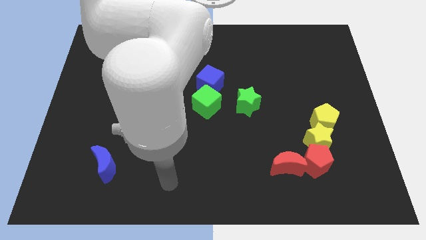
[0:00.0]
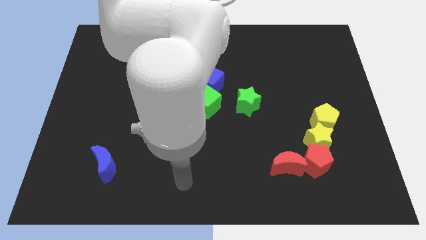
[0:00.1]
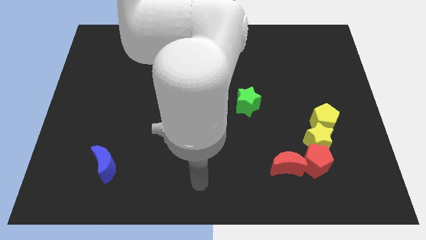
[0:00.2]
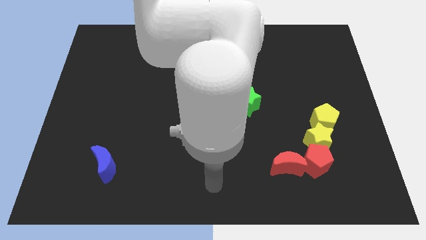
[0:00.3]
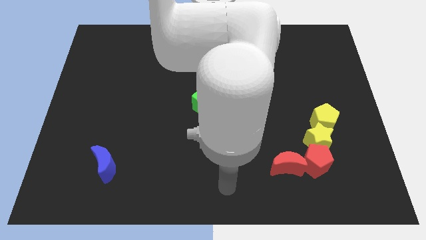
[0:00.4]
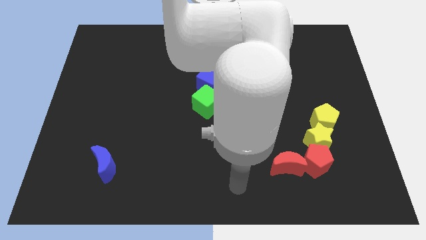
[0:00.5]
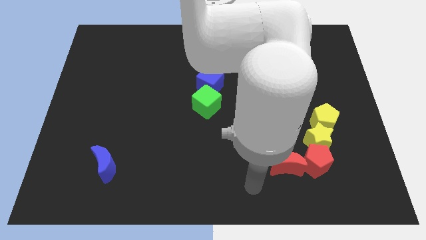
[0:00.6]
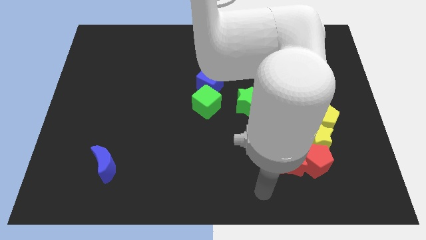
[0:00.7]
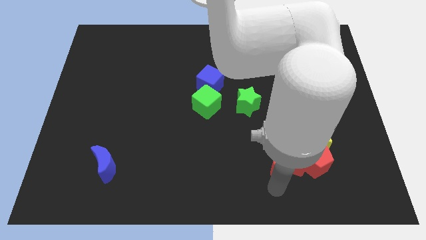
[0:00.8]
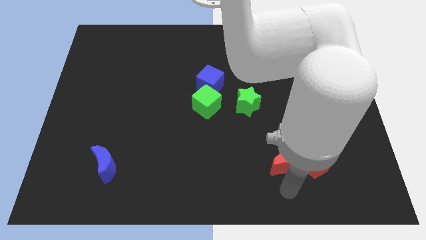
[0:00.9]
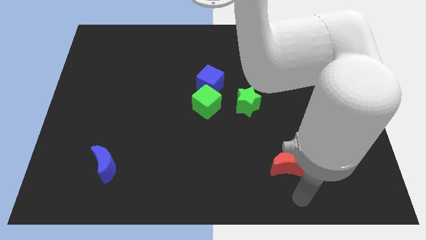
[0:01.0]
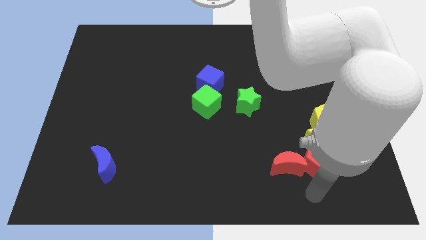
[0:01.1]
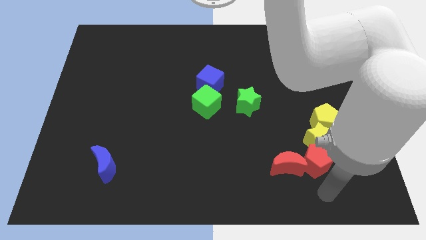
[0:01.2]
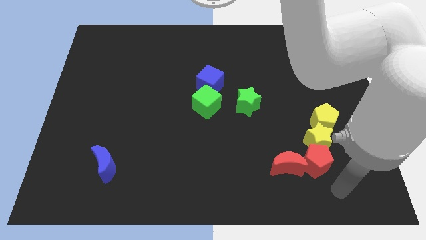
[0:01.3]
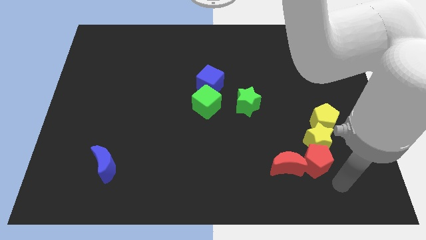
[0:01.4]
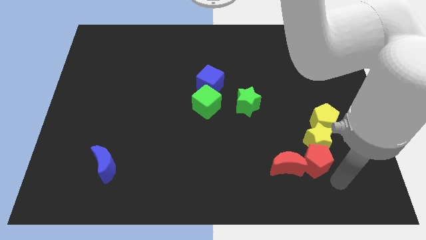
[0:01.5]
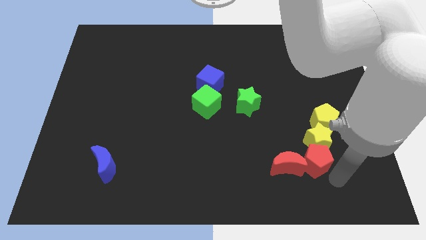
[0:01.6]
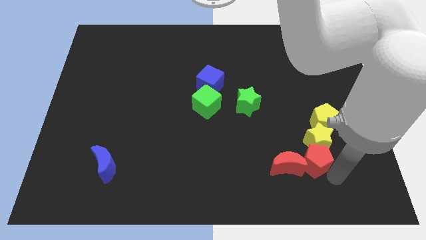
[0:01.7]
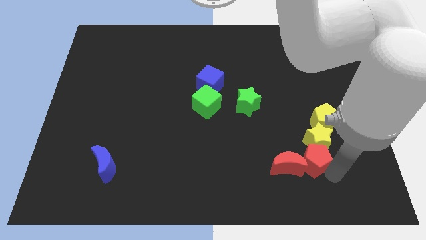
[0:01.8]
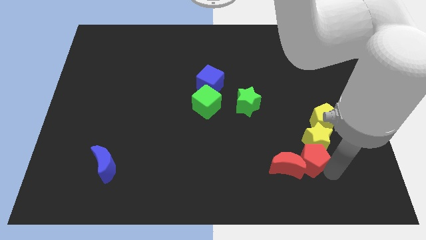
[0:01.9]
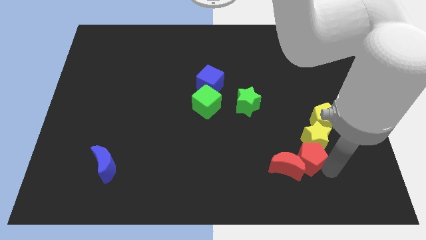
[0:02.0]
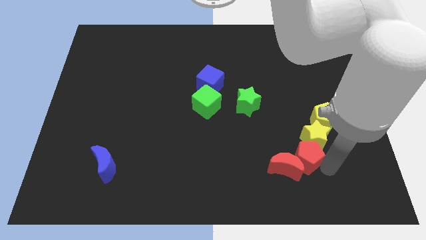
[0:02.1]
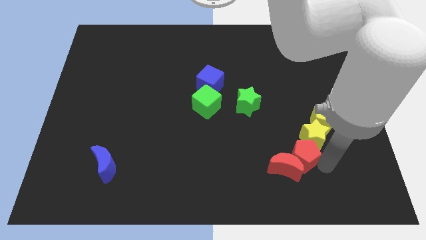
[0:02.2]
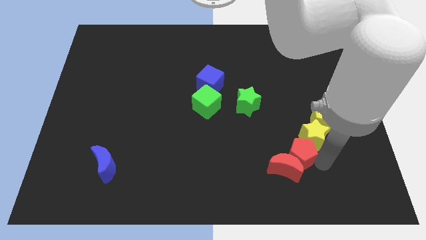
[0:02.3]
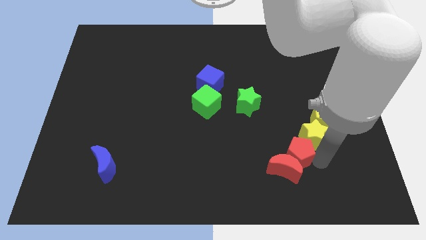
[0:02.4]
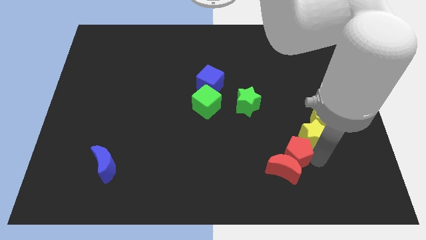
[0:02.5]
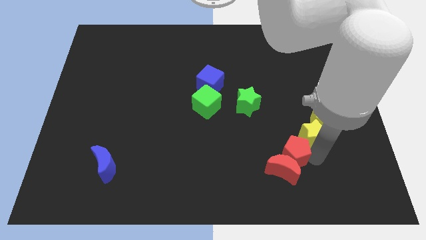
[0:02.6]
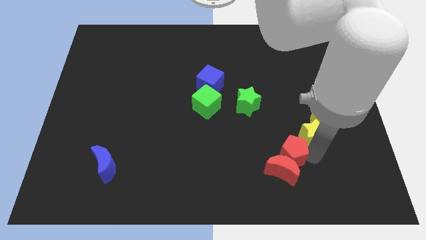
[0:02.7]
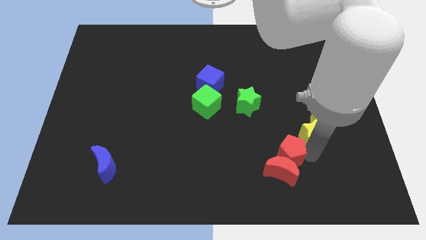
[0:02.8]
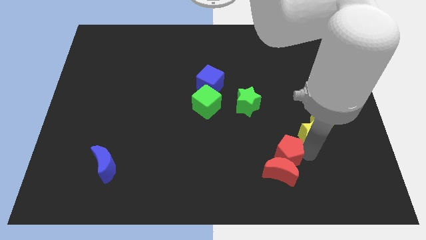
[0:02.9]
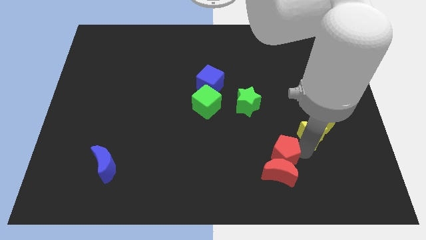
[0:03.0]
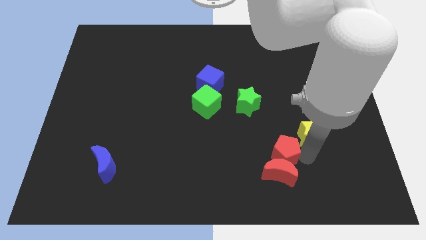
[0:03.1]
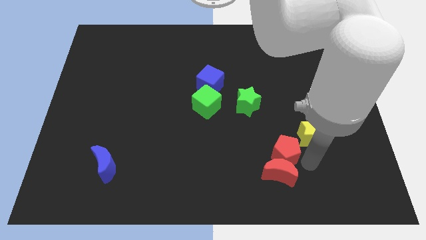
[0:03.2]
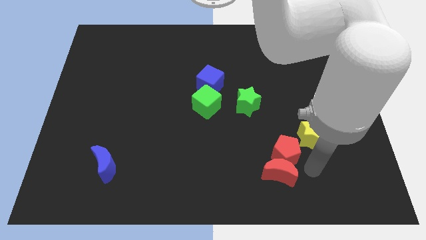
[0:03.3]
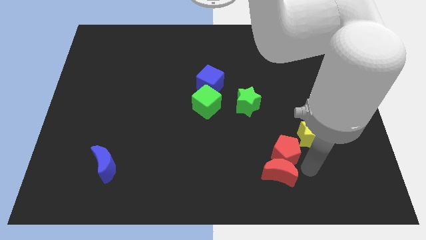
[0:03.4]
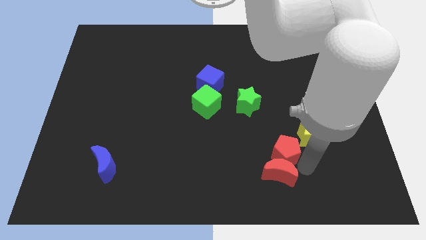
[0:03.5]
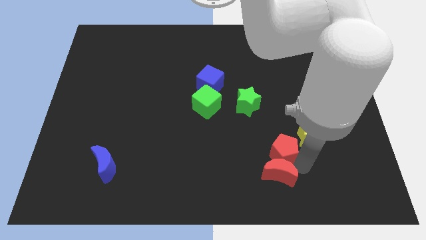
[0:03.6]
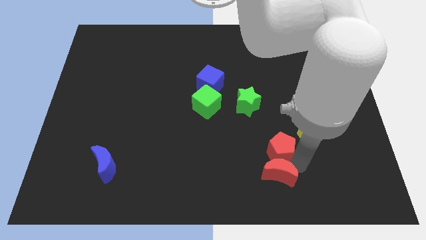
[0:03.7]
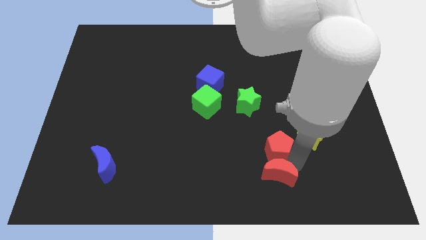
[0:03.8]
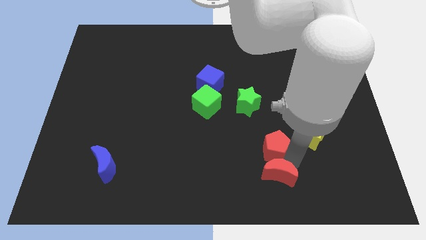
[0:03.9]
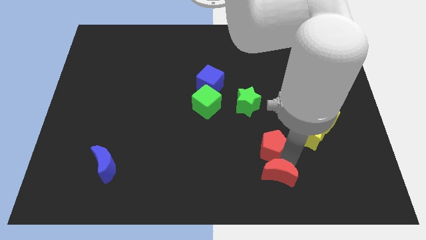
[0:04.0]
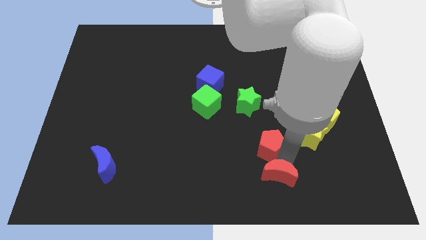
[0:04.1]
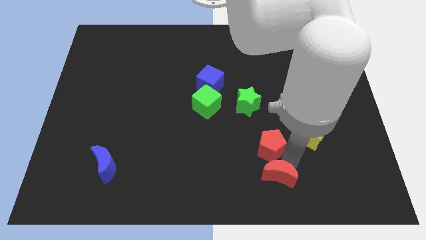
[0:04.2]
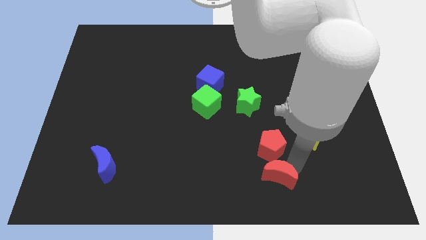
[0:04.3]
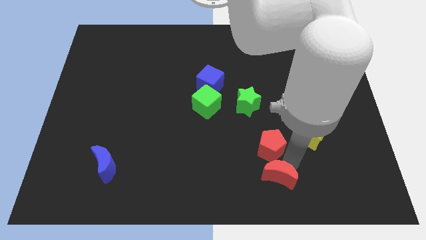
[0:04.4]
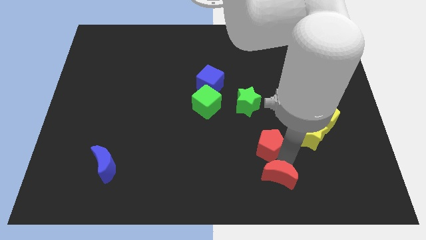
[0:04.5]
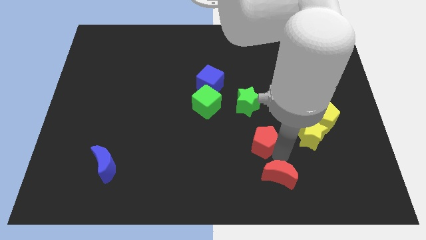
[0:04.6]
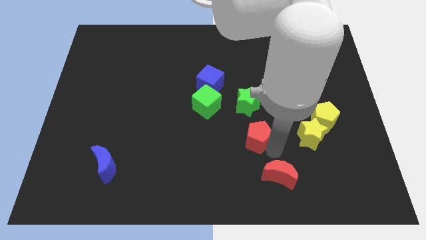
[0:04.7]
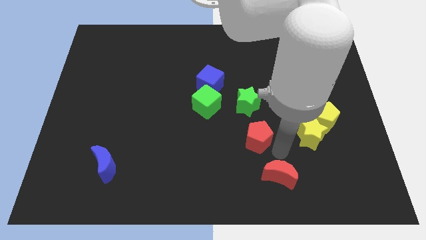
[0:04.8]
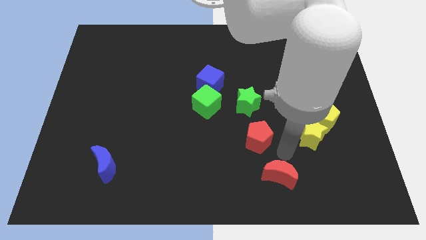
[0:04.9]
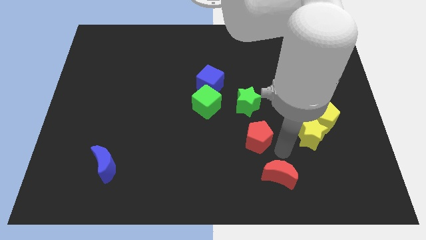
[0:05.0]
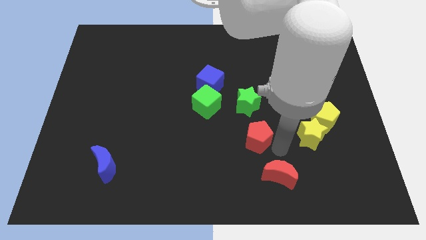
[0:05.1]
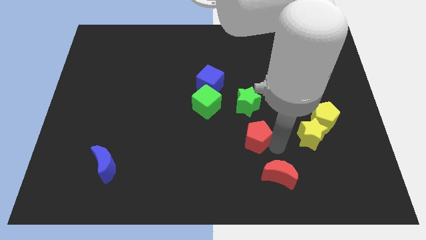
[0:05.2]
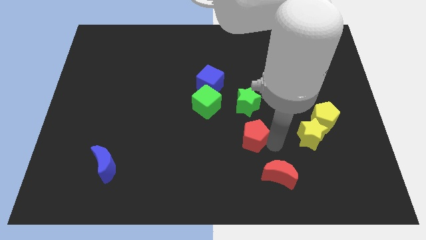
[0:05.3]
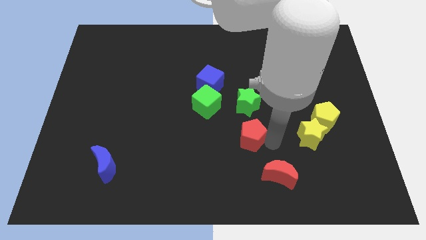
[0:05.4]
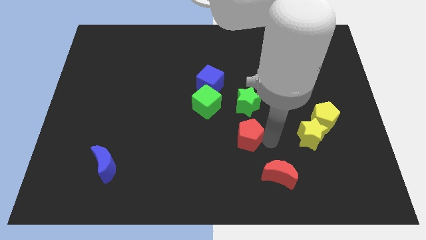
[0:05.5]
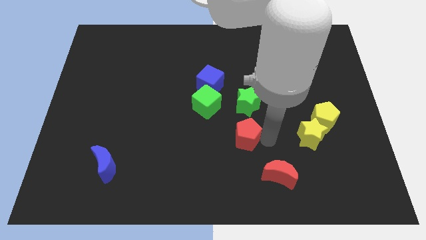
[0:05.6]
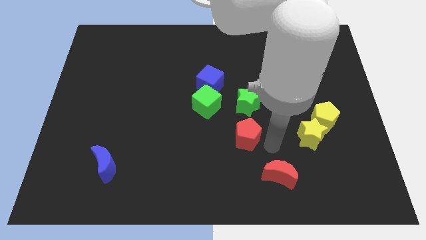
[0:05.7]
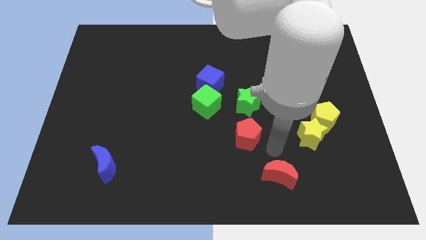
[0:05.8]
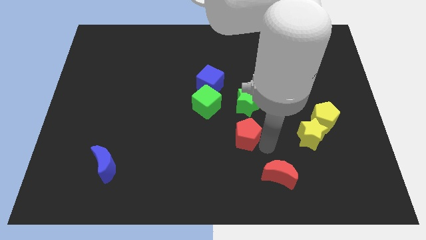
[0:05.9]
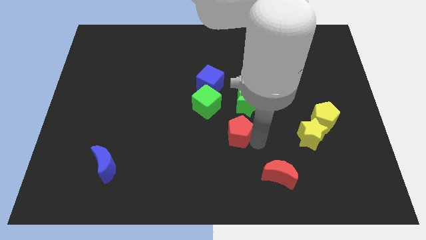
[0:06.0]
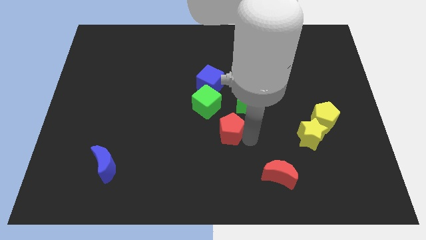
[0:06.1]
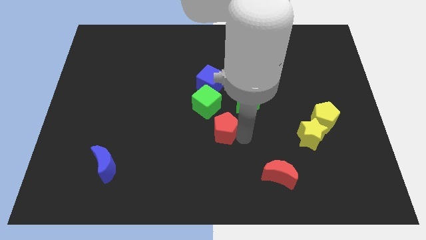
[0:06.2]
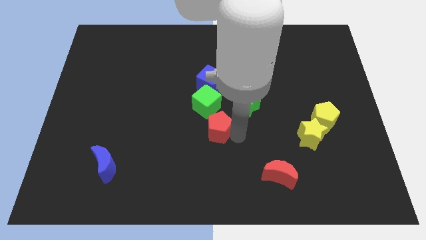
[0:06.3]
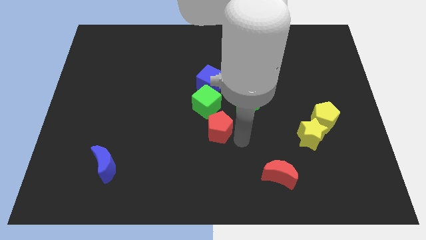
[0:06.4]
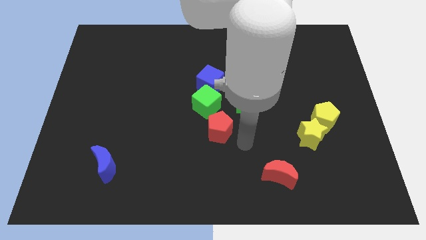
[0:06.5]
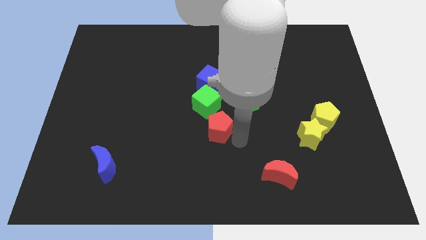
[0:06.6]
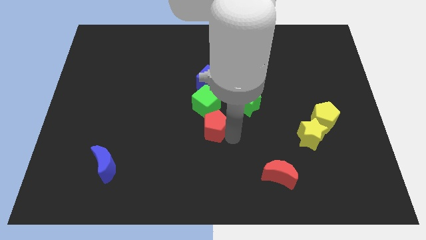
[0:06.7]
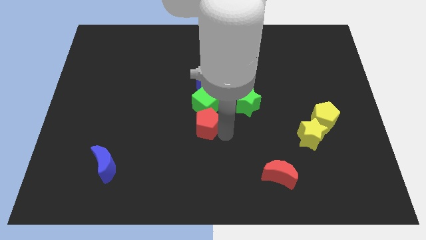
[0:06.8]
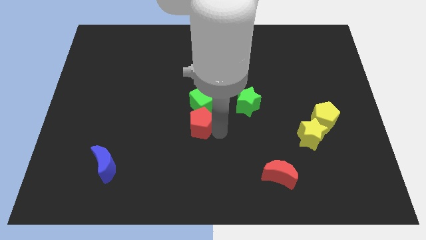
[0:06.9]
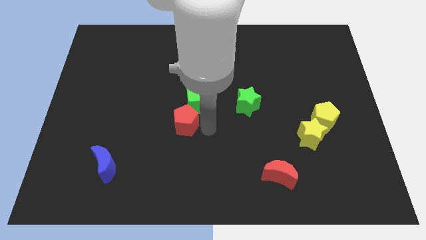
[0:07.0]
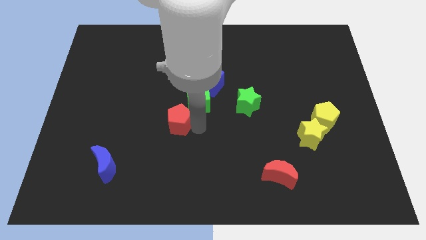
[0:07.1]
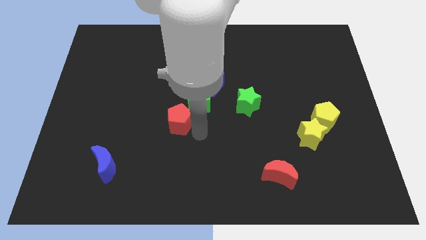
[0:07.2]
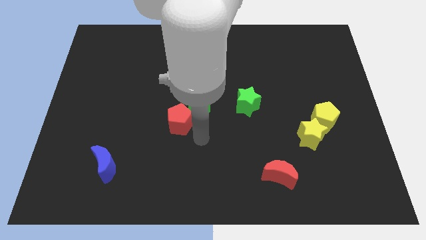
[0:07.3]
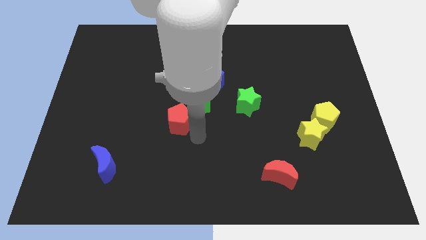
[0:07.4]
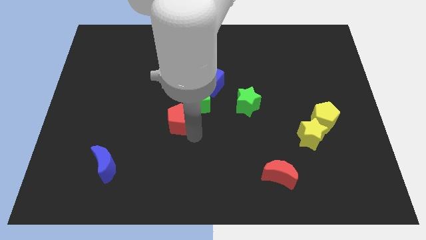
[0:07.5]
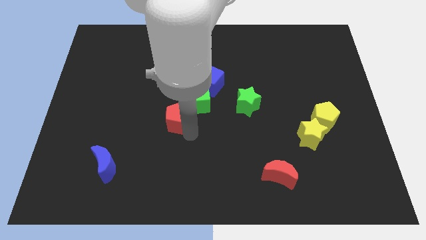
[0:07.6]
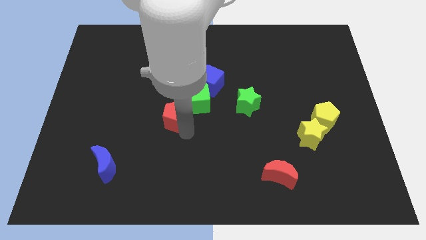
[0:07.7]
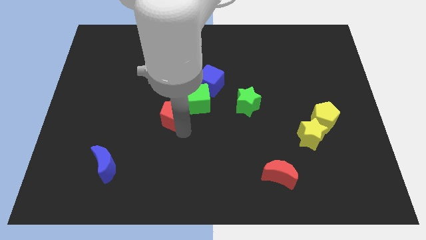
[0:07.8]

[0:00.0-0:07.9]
put the red pentagon to the left side of the green cube
